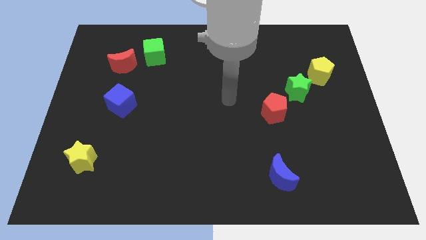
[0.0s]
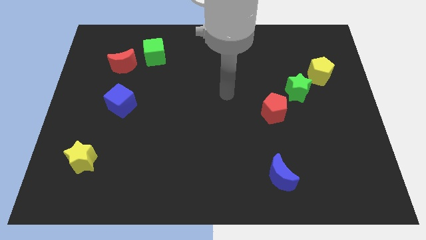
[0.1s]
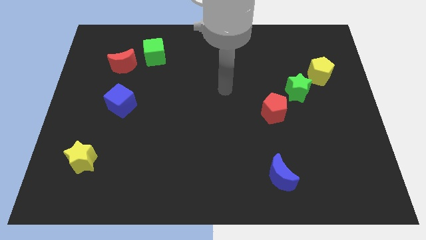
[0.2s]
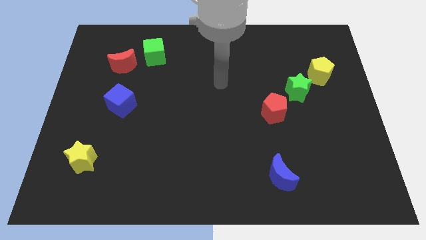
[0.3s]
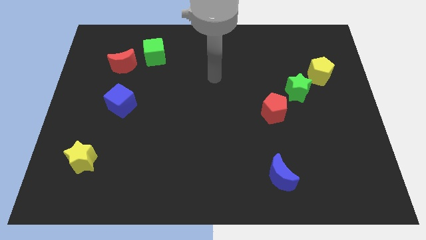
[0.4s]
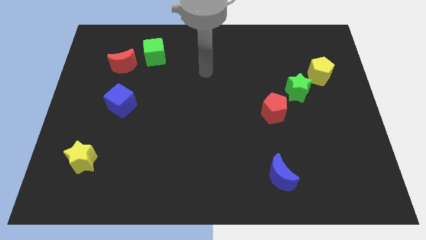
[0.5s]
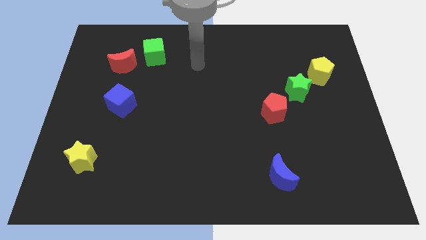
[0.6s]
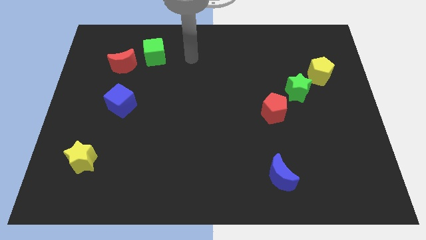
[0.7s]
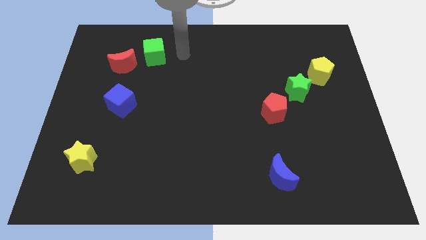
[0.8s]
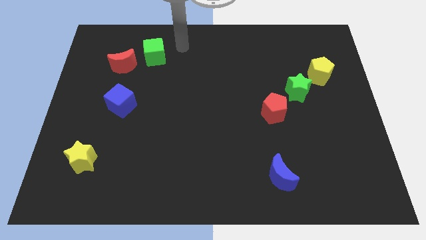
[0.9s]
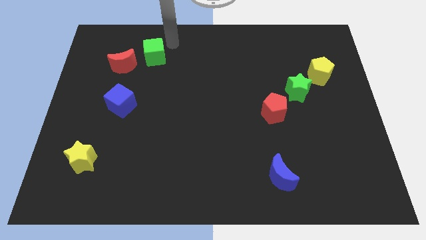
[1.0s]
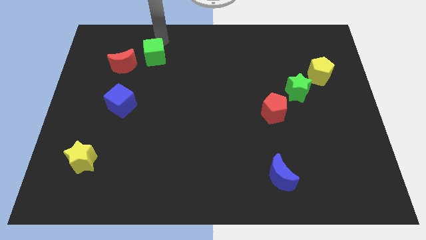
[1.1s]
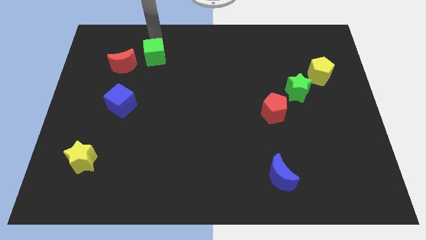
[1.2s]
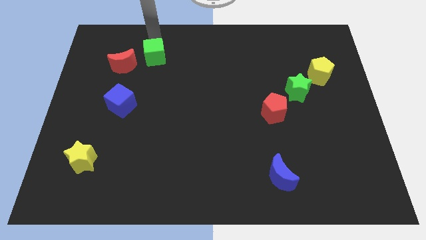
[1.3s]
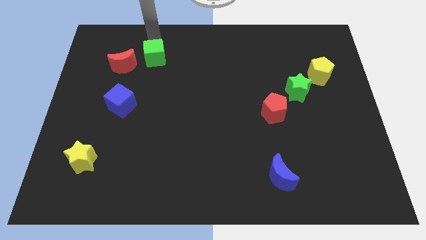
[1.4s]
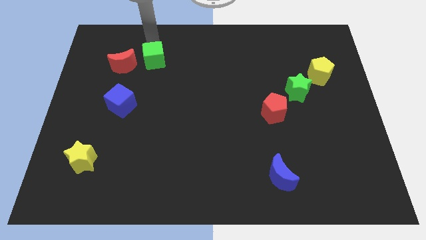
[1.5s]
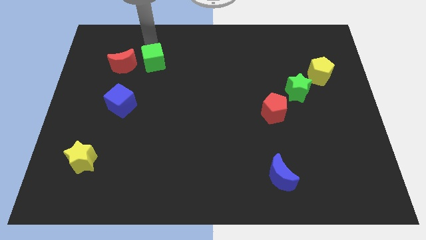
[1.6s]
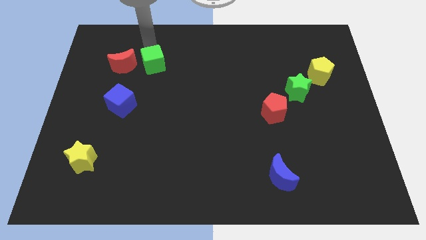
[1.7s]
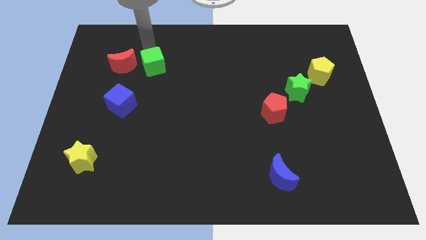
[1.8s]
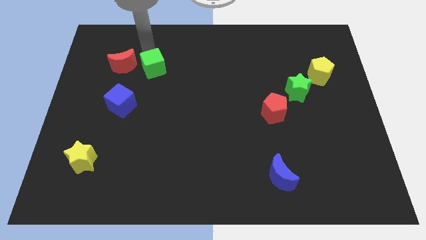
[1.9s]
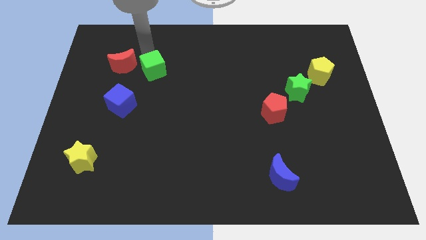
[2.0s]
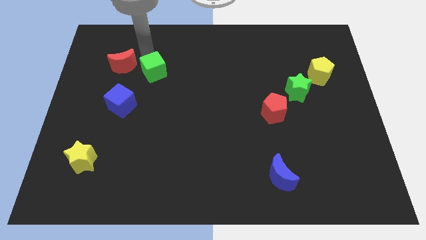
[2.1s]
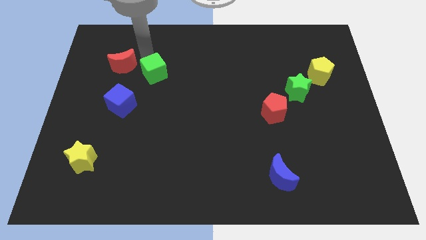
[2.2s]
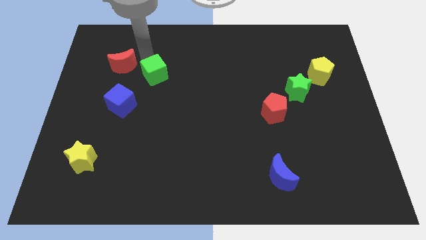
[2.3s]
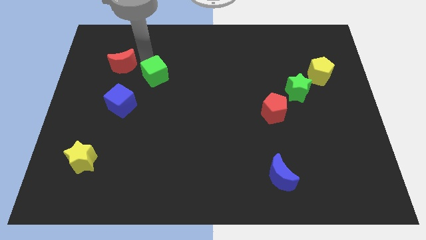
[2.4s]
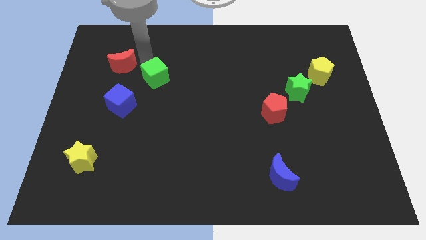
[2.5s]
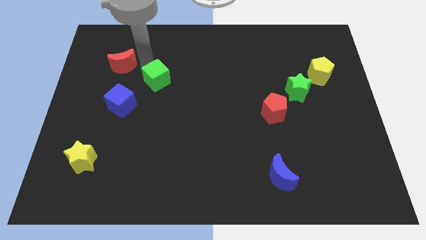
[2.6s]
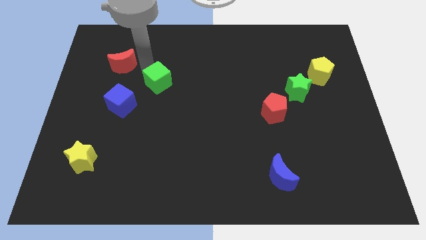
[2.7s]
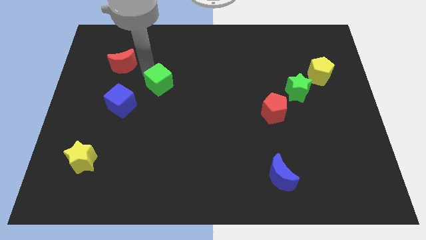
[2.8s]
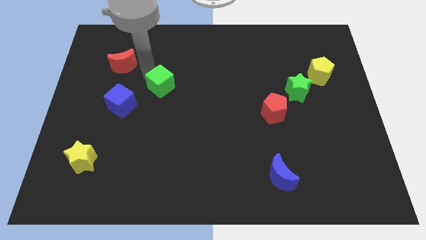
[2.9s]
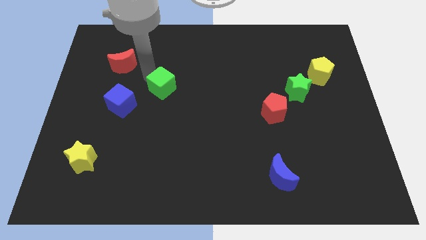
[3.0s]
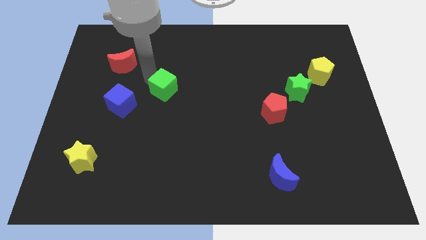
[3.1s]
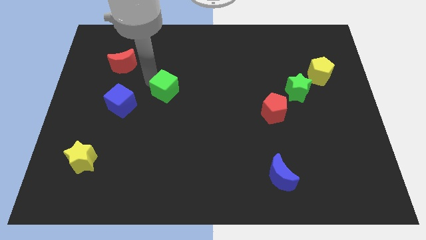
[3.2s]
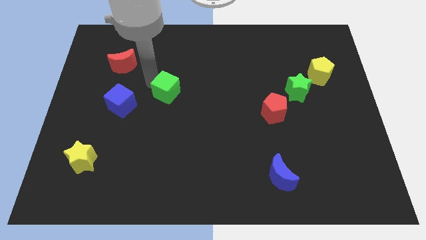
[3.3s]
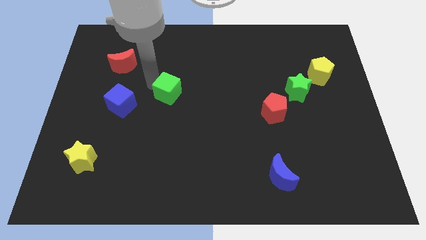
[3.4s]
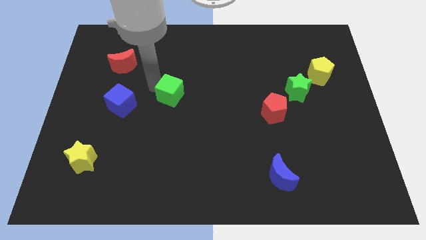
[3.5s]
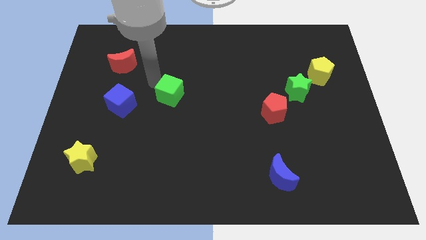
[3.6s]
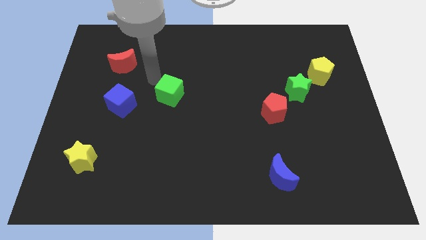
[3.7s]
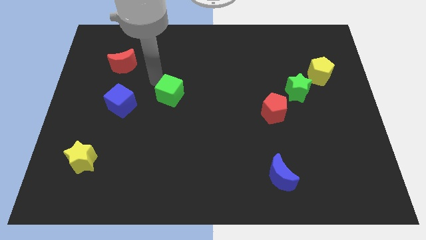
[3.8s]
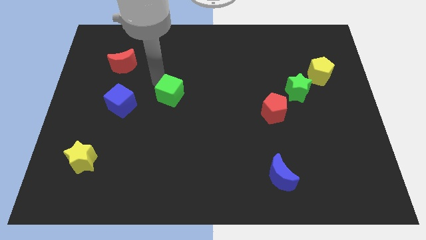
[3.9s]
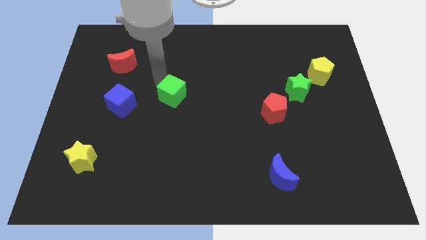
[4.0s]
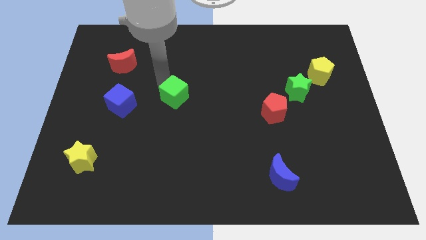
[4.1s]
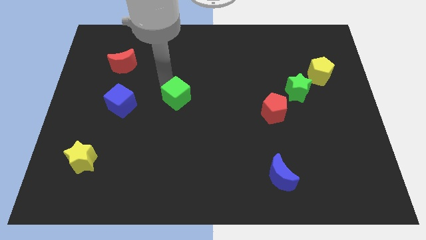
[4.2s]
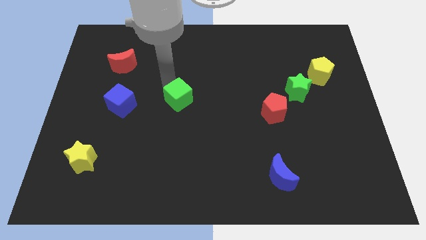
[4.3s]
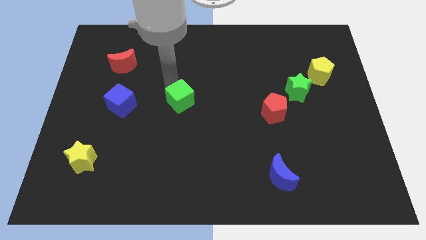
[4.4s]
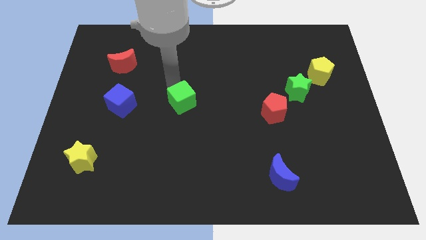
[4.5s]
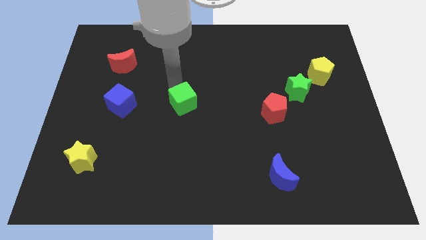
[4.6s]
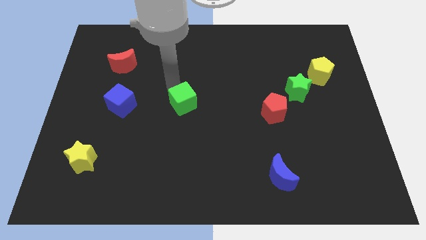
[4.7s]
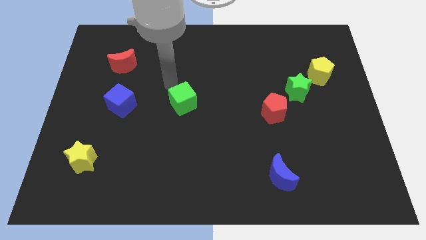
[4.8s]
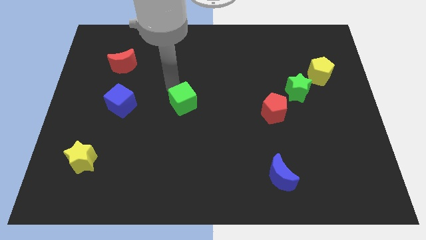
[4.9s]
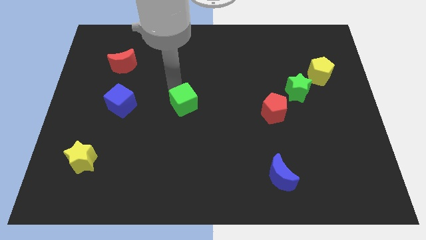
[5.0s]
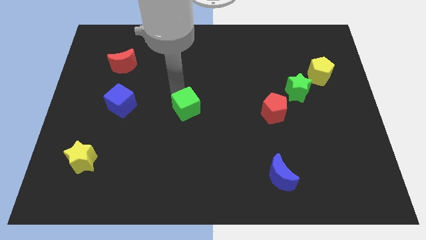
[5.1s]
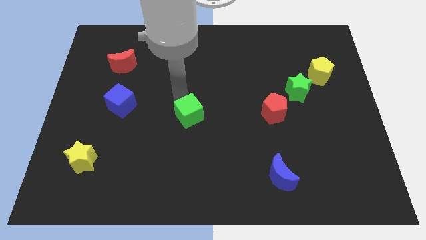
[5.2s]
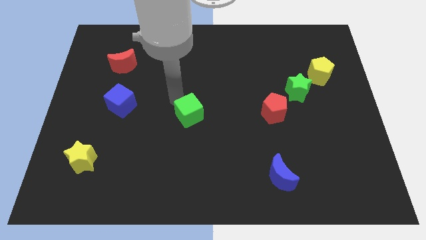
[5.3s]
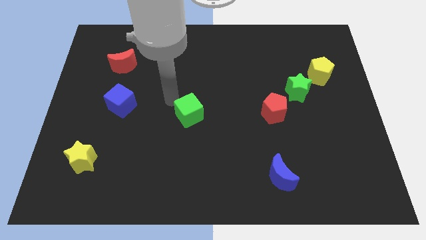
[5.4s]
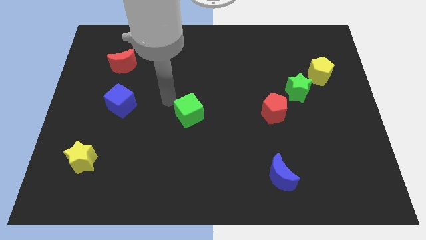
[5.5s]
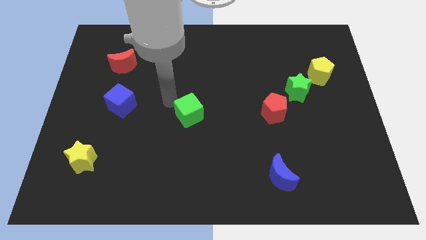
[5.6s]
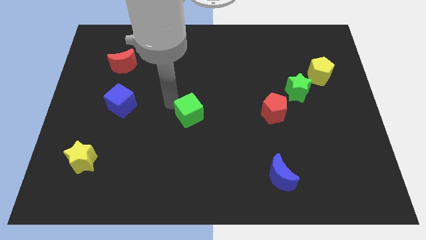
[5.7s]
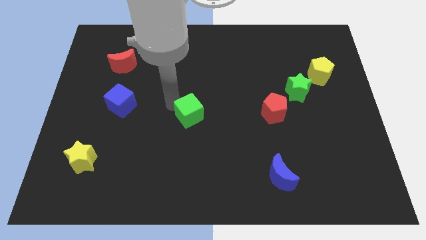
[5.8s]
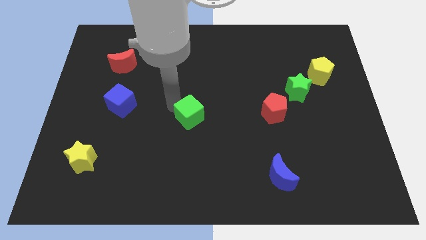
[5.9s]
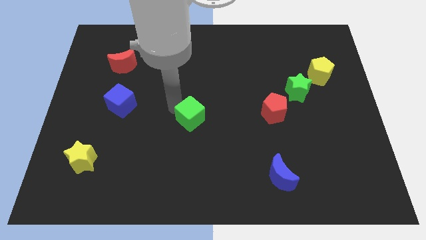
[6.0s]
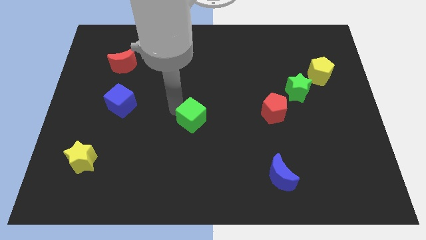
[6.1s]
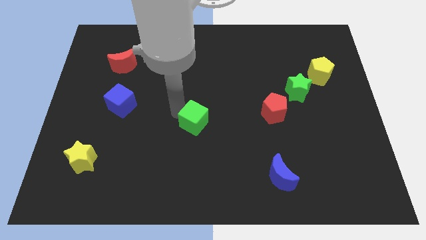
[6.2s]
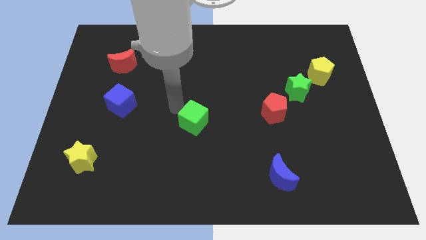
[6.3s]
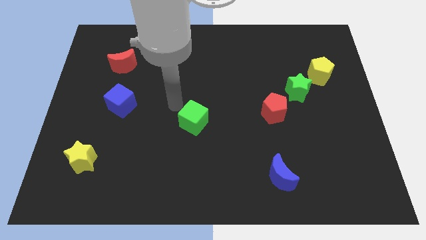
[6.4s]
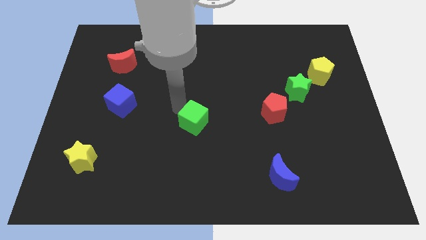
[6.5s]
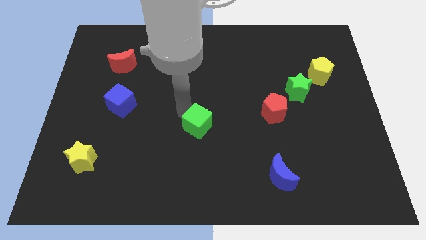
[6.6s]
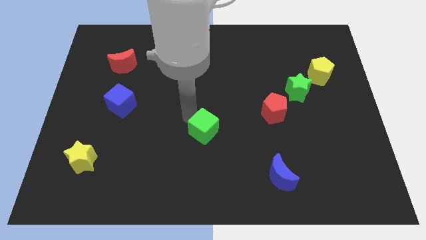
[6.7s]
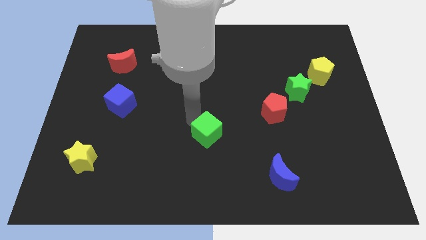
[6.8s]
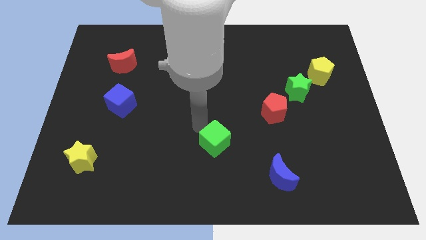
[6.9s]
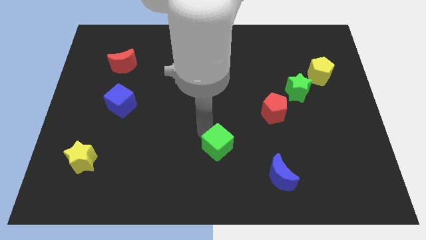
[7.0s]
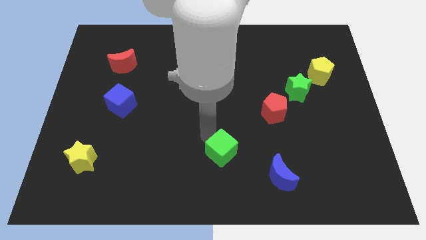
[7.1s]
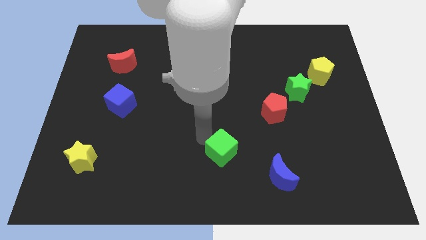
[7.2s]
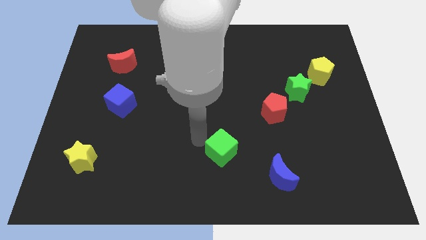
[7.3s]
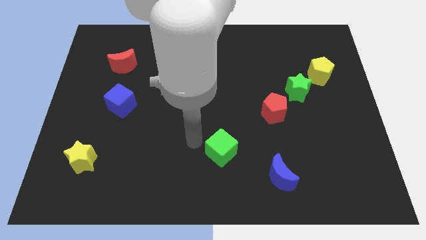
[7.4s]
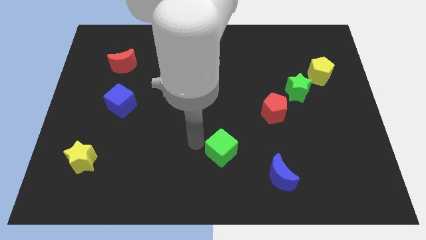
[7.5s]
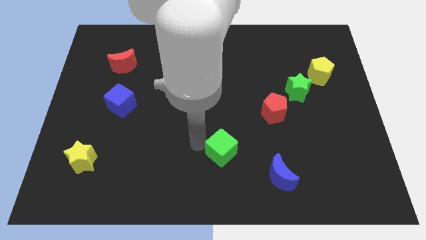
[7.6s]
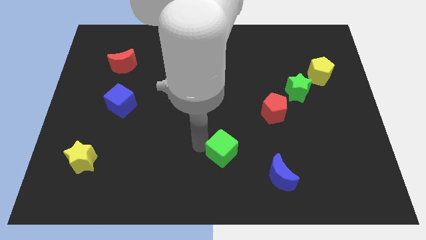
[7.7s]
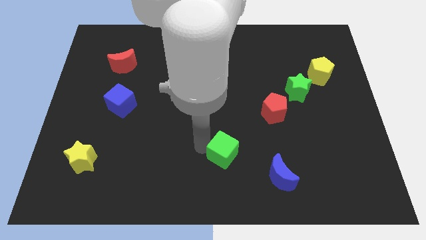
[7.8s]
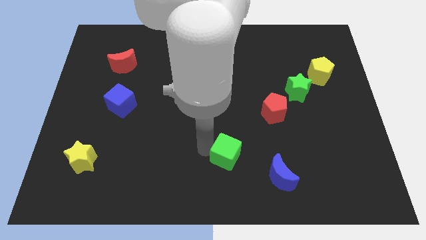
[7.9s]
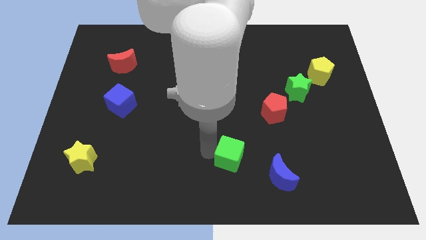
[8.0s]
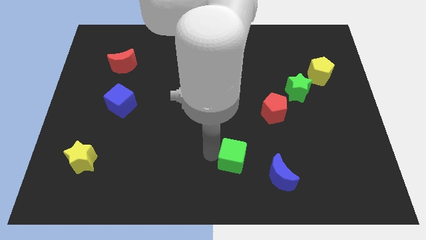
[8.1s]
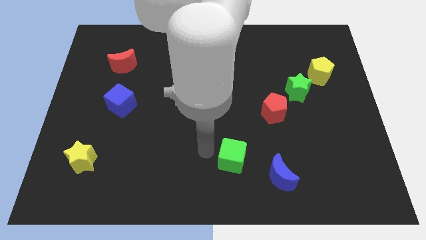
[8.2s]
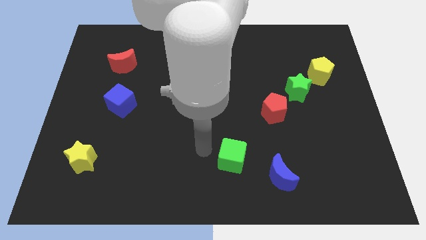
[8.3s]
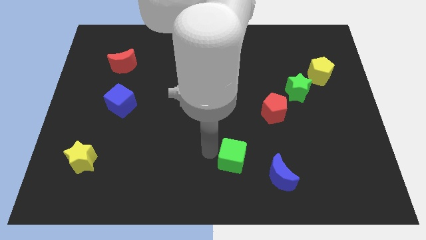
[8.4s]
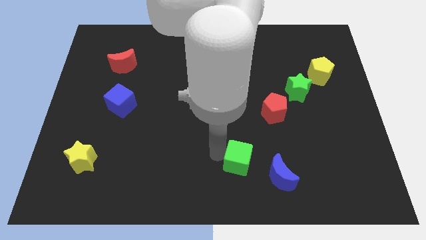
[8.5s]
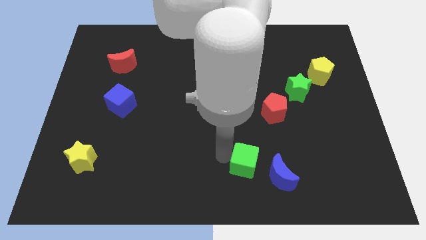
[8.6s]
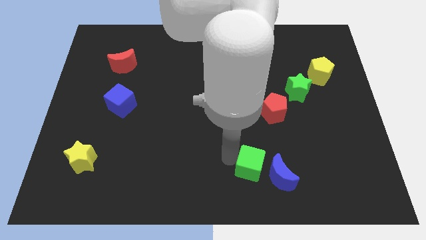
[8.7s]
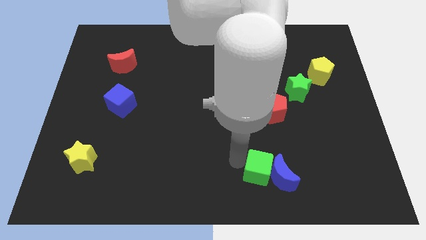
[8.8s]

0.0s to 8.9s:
slide the green cube towards the blue moon
